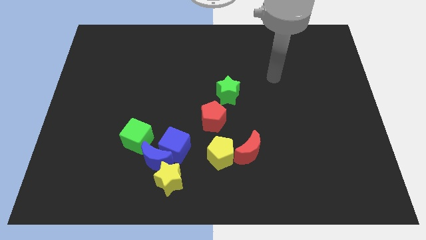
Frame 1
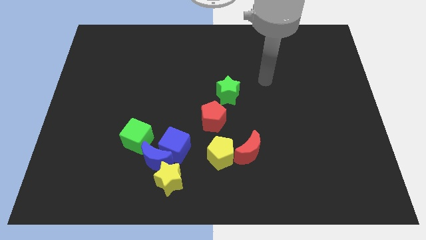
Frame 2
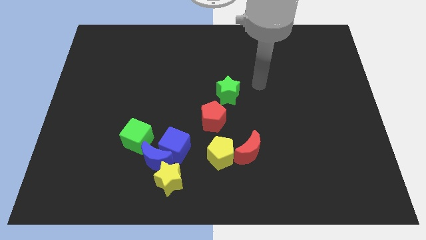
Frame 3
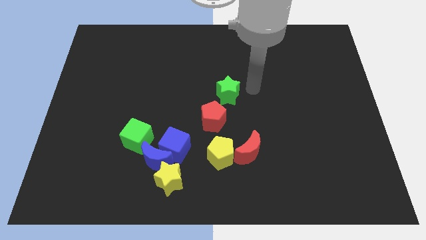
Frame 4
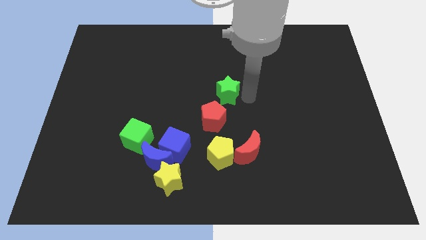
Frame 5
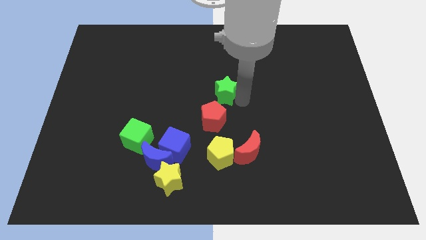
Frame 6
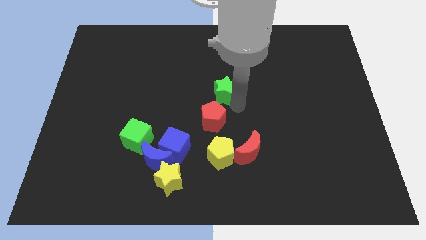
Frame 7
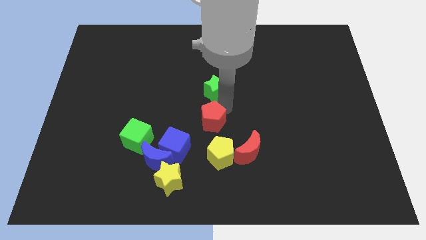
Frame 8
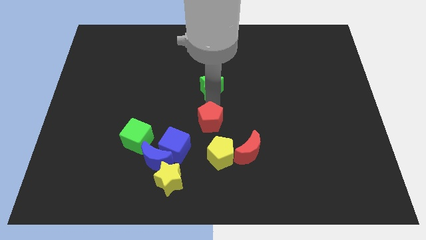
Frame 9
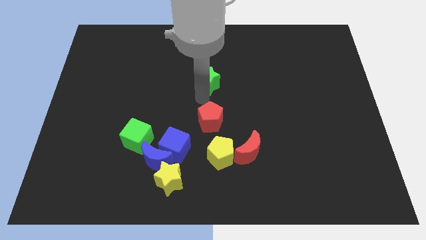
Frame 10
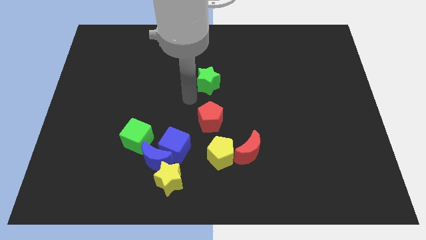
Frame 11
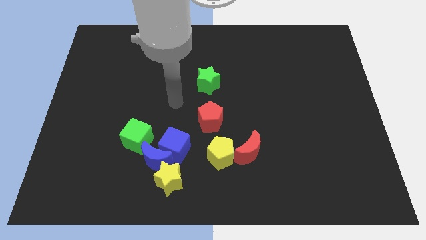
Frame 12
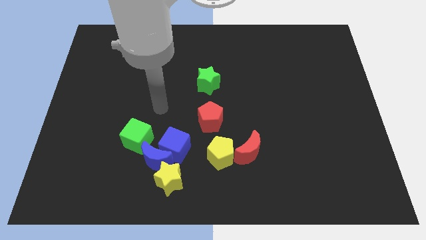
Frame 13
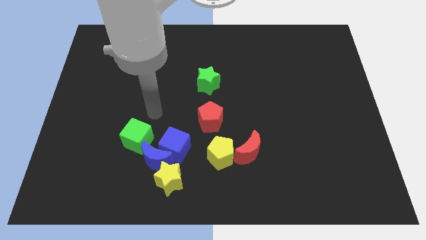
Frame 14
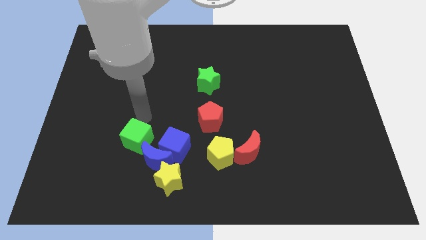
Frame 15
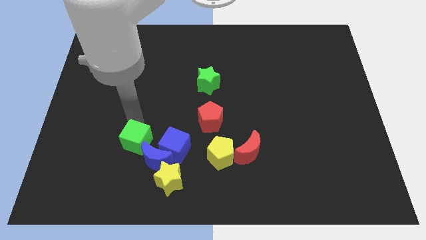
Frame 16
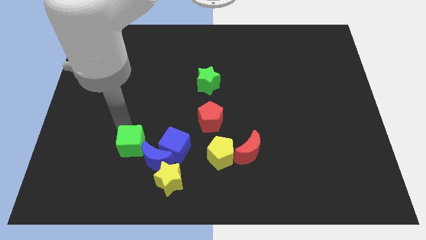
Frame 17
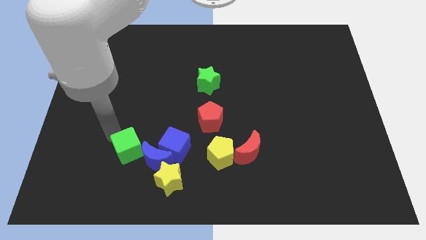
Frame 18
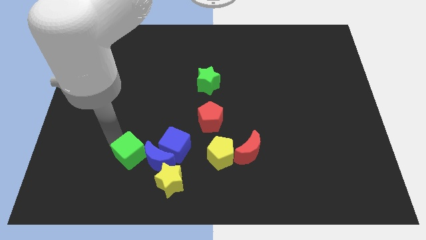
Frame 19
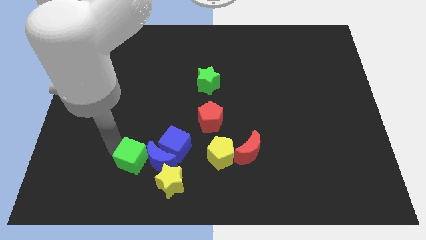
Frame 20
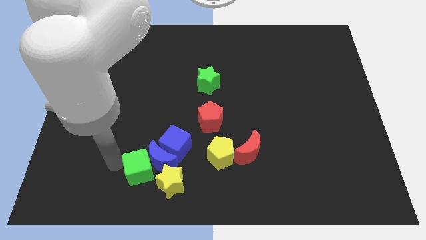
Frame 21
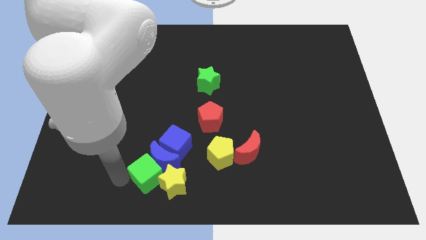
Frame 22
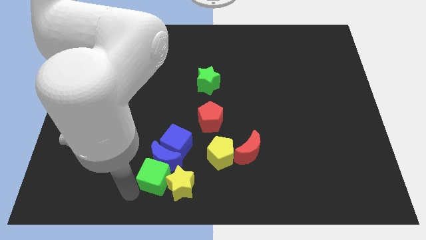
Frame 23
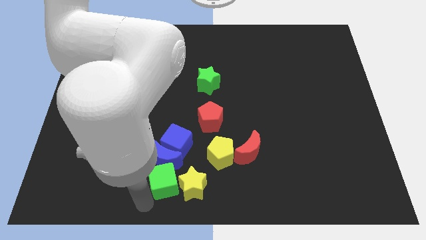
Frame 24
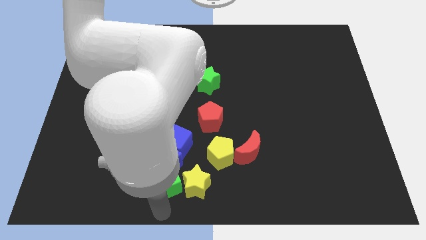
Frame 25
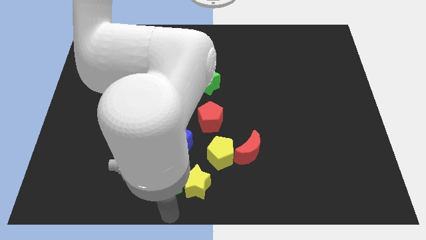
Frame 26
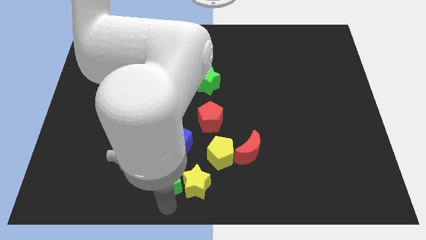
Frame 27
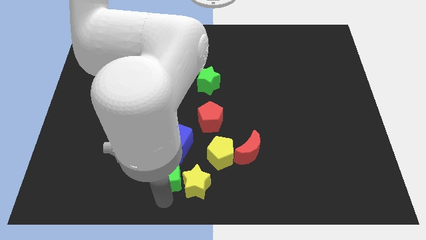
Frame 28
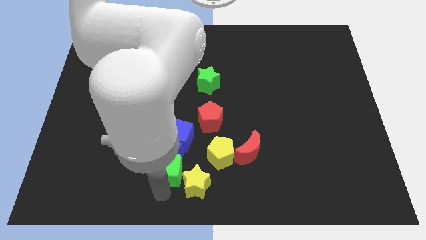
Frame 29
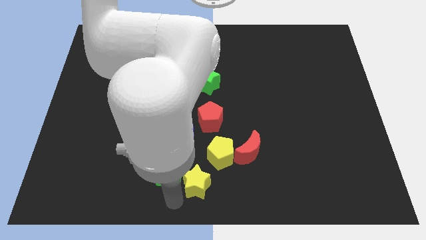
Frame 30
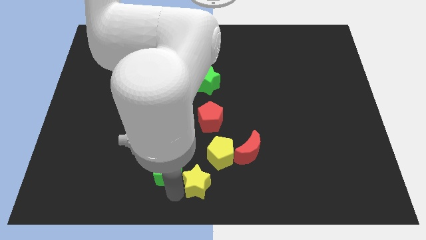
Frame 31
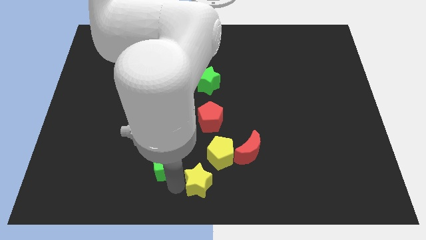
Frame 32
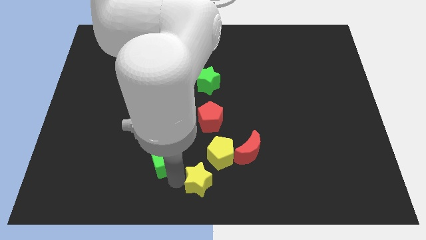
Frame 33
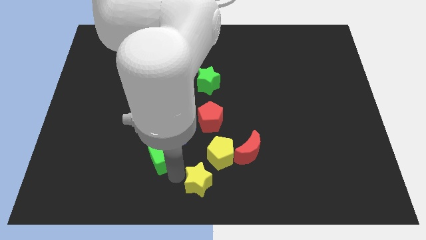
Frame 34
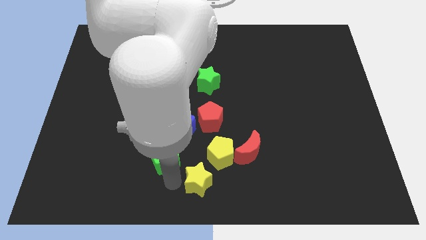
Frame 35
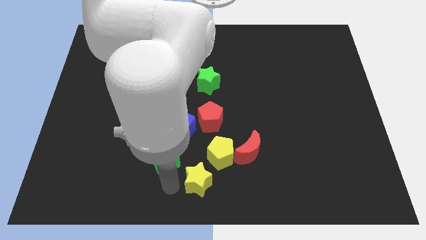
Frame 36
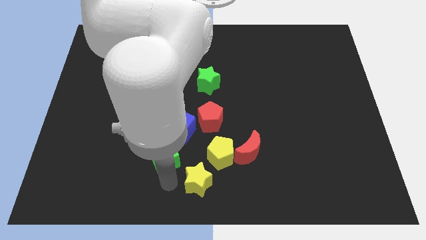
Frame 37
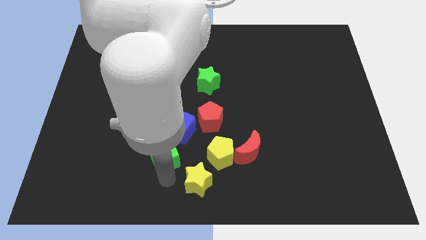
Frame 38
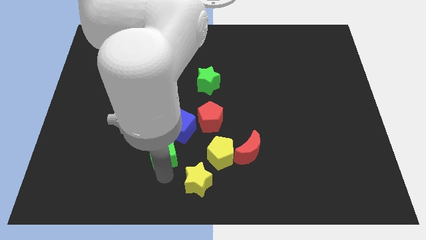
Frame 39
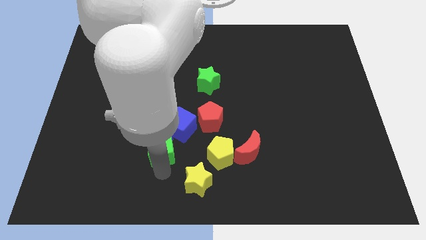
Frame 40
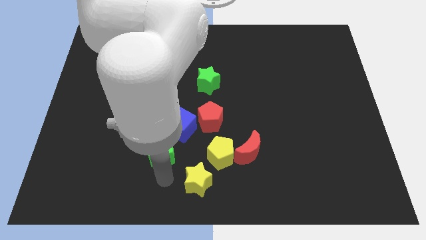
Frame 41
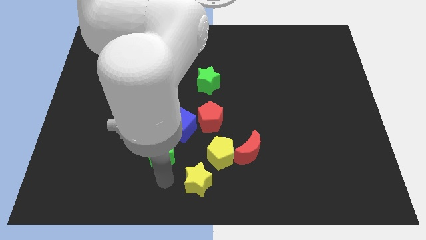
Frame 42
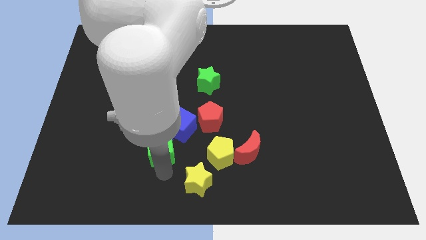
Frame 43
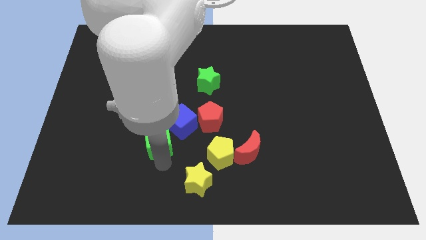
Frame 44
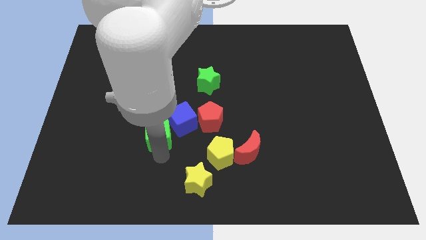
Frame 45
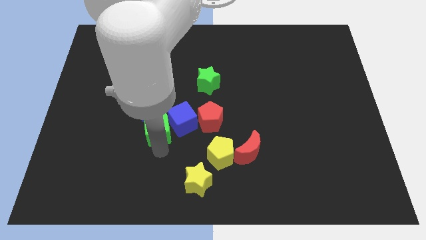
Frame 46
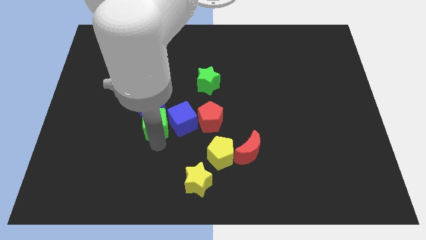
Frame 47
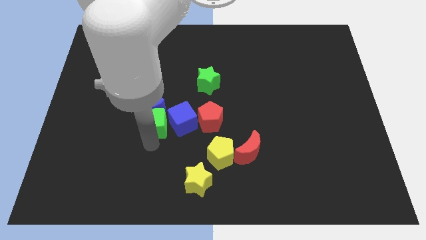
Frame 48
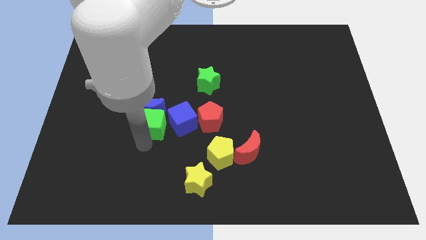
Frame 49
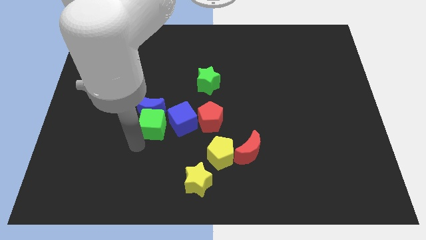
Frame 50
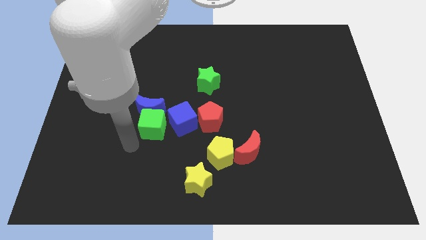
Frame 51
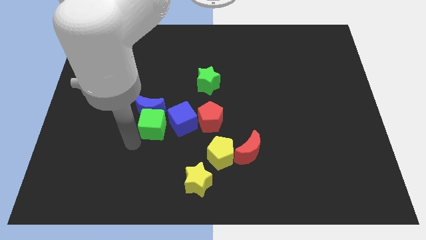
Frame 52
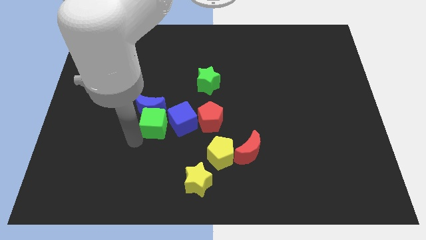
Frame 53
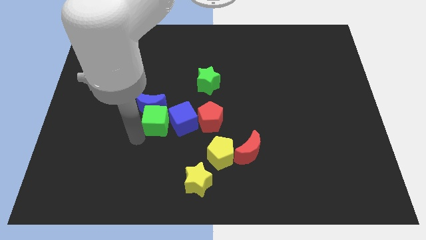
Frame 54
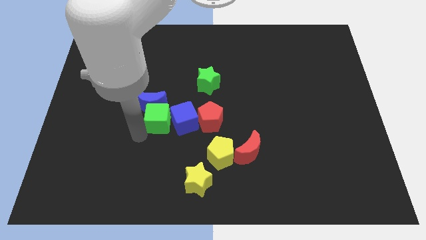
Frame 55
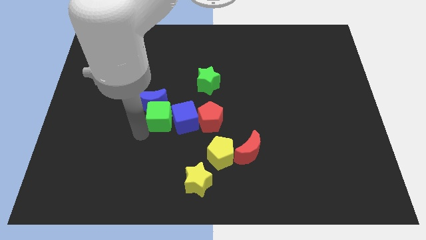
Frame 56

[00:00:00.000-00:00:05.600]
slightly move the green cube up and right

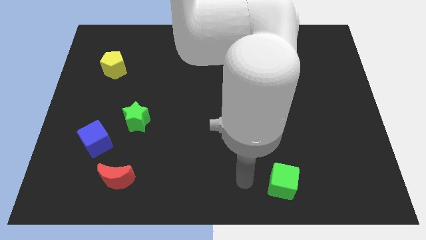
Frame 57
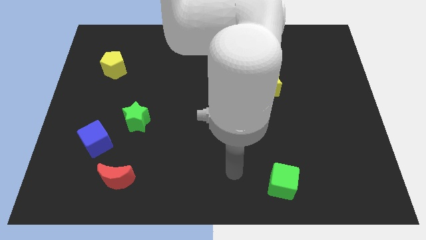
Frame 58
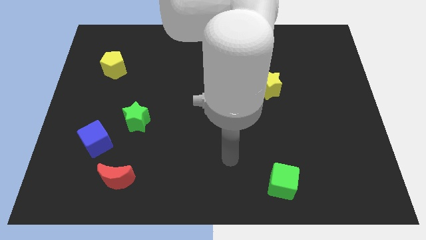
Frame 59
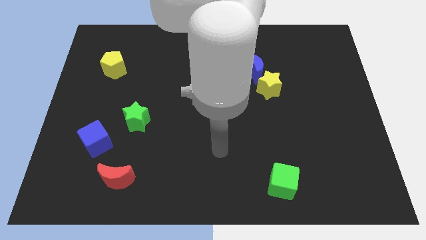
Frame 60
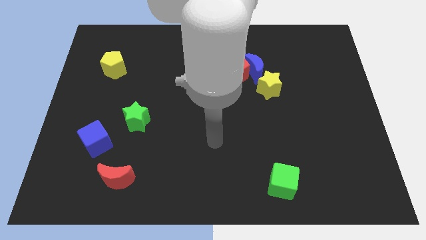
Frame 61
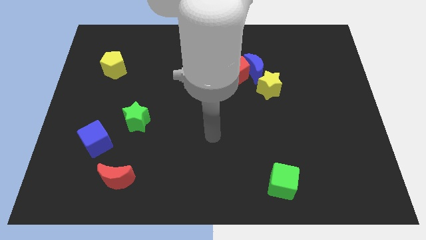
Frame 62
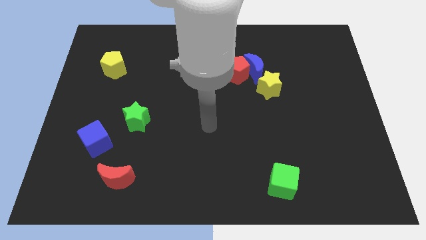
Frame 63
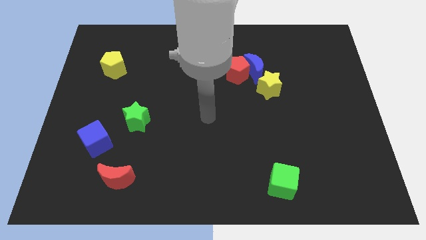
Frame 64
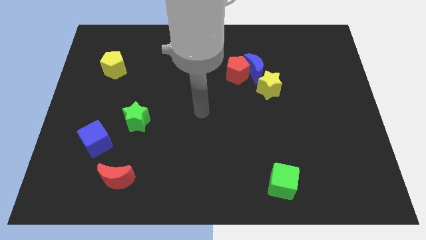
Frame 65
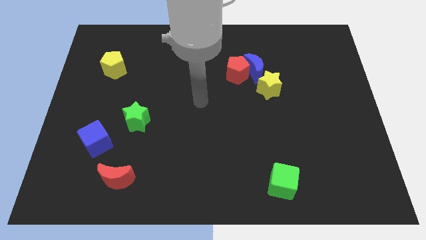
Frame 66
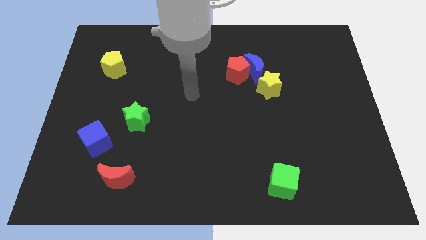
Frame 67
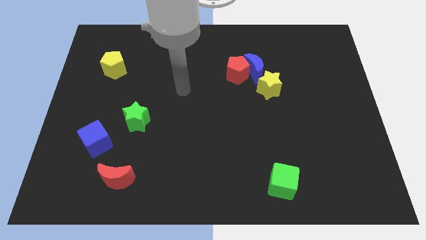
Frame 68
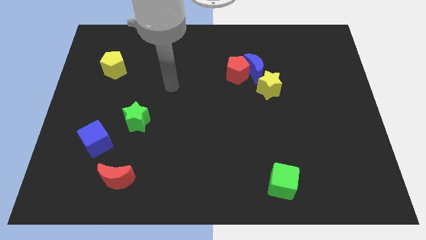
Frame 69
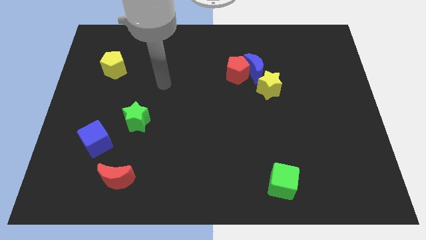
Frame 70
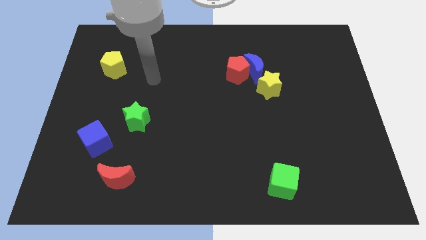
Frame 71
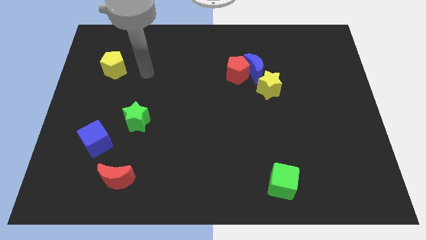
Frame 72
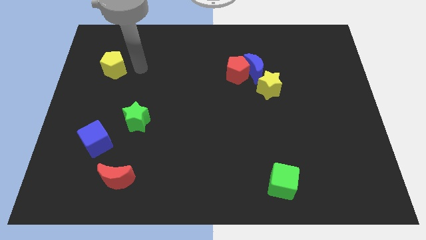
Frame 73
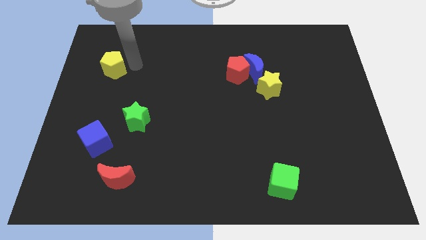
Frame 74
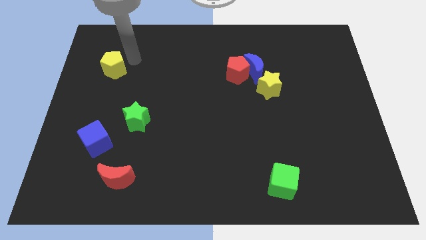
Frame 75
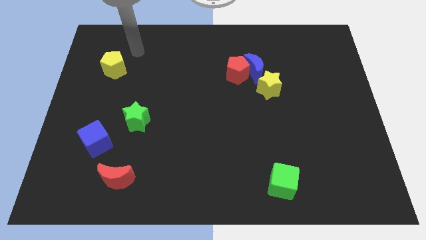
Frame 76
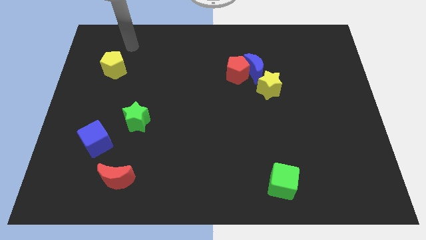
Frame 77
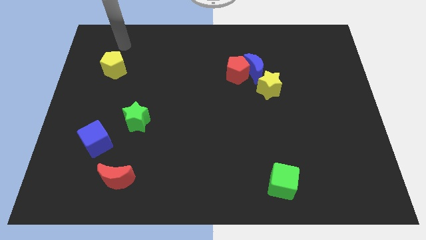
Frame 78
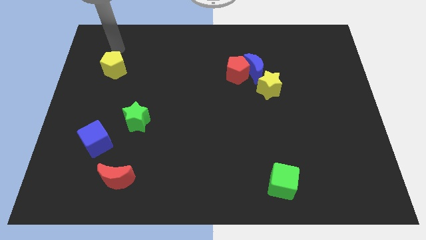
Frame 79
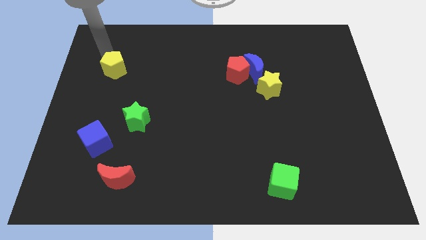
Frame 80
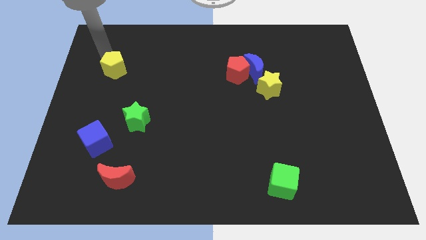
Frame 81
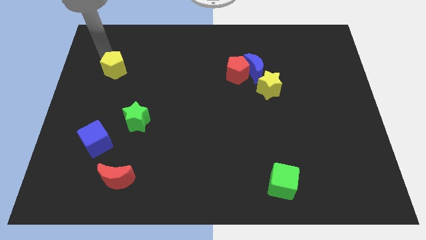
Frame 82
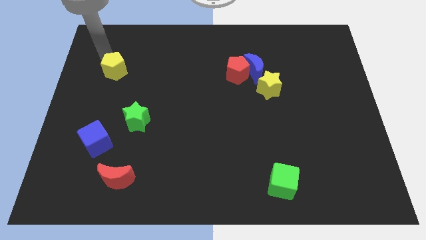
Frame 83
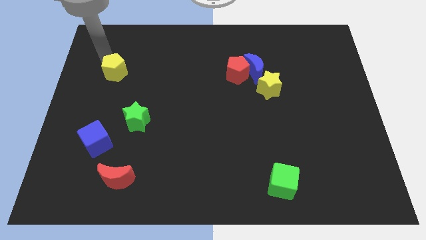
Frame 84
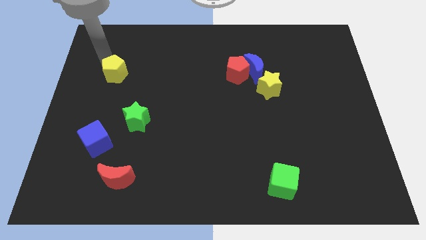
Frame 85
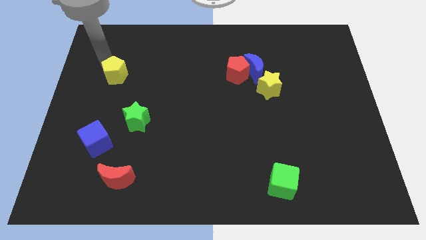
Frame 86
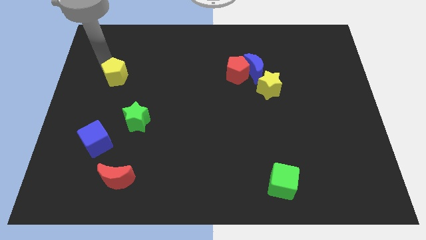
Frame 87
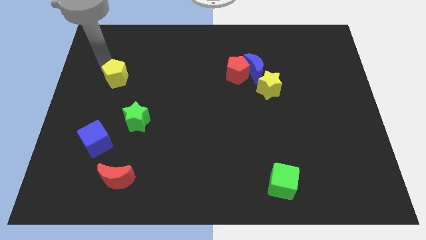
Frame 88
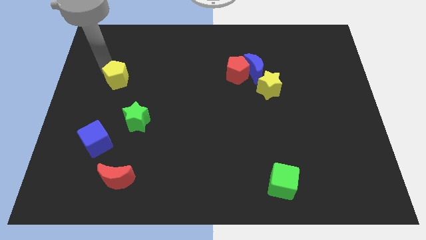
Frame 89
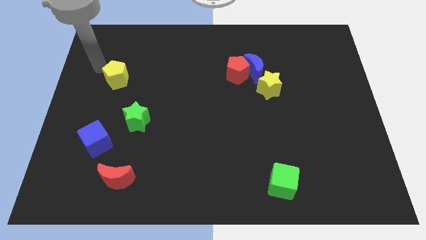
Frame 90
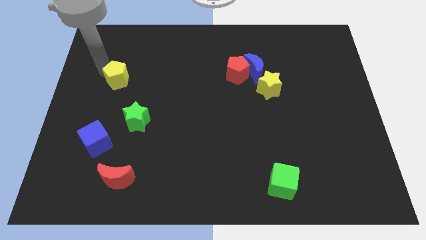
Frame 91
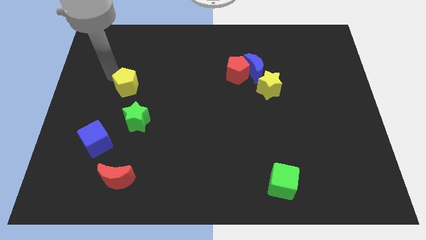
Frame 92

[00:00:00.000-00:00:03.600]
slide the yellow pentagon diagonally down and right a little bit
